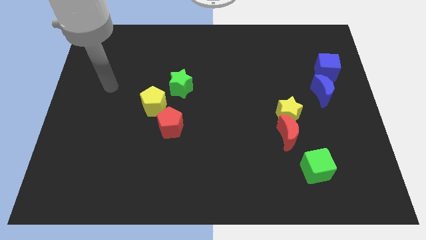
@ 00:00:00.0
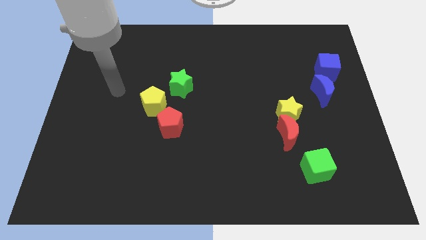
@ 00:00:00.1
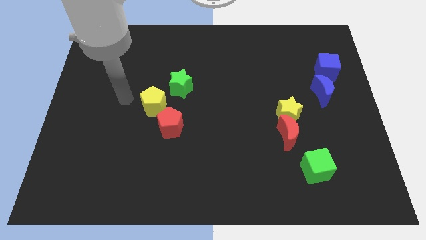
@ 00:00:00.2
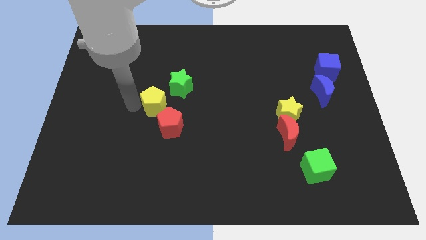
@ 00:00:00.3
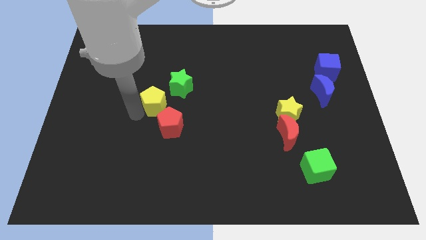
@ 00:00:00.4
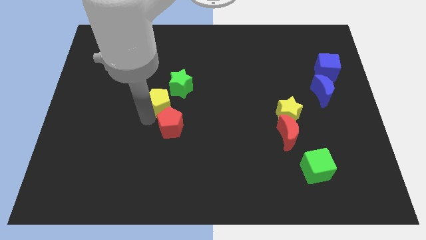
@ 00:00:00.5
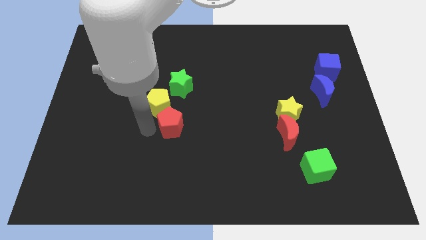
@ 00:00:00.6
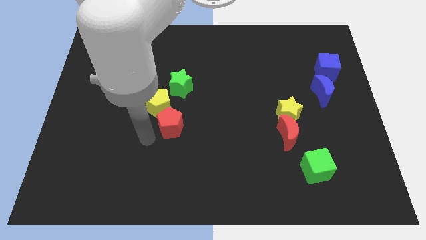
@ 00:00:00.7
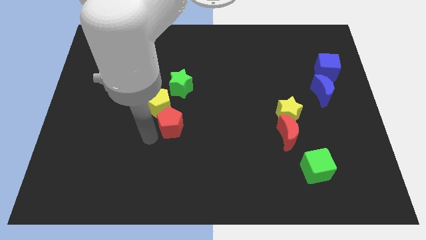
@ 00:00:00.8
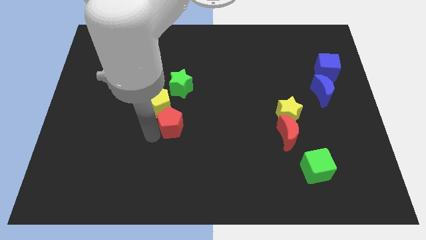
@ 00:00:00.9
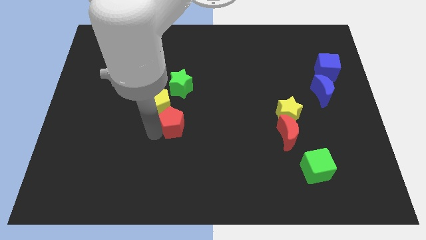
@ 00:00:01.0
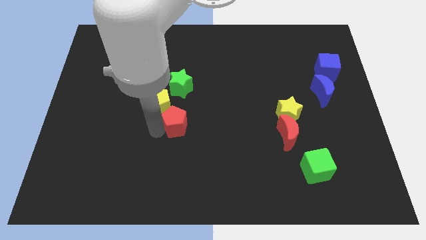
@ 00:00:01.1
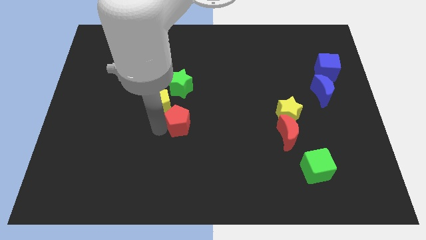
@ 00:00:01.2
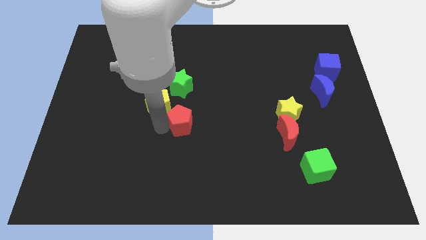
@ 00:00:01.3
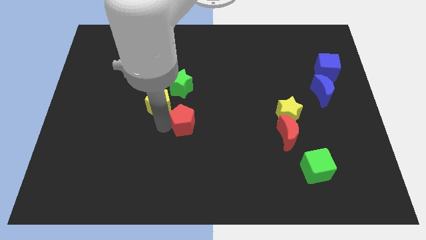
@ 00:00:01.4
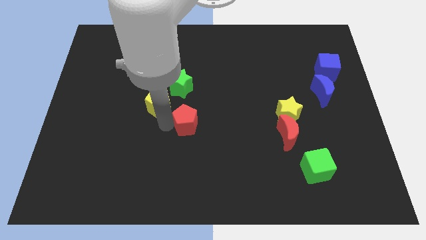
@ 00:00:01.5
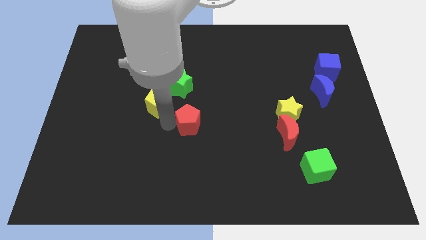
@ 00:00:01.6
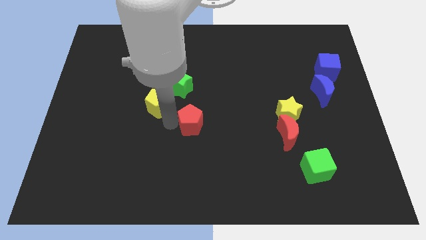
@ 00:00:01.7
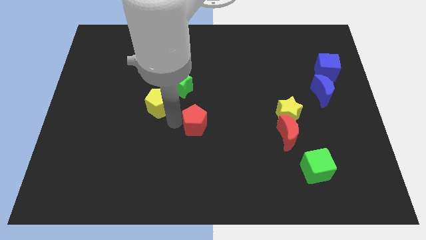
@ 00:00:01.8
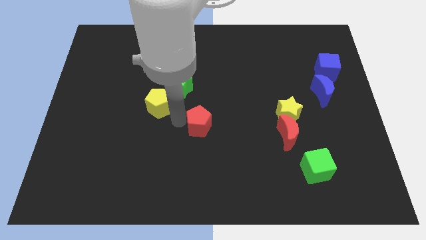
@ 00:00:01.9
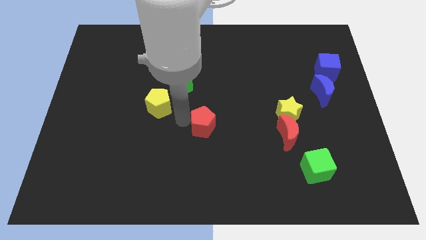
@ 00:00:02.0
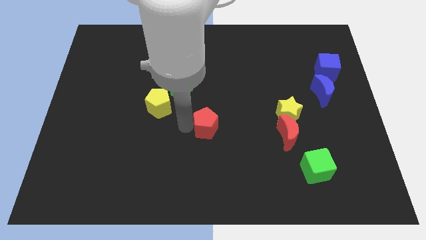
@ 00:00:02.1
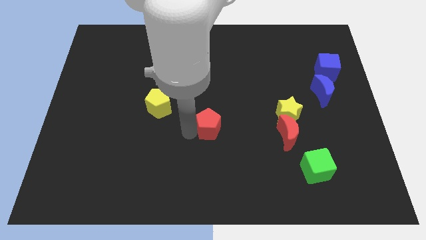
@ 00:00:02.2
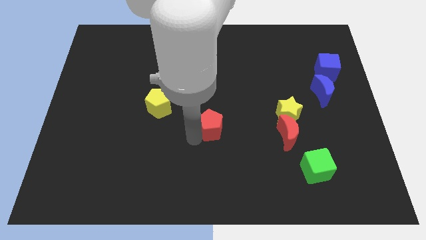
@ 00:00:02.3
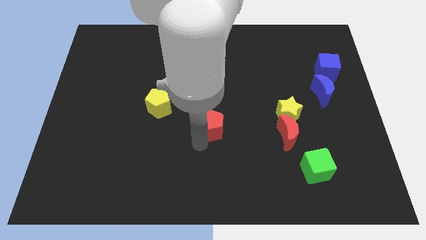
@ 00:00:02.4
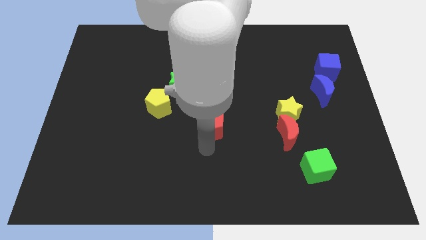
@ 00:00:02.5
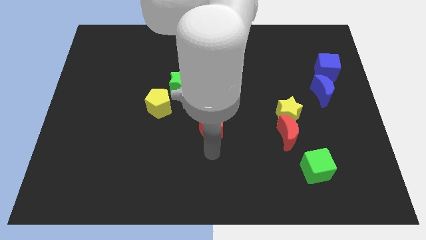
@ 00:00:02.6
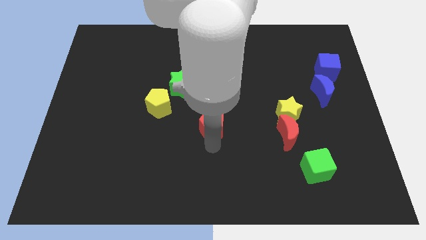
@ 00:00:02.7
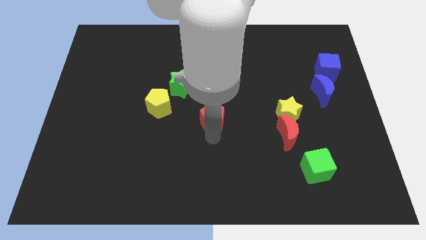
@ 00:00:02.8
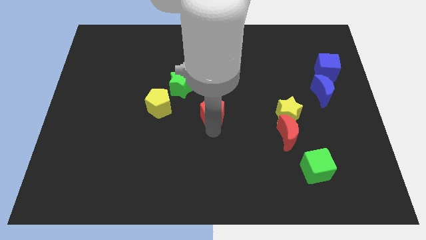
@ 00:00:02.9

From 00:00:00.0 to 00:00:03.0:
slightly push the red pentagon up and to the right

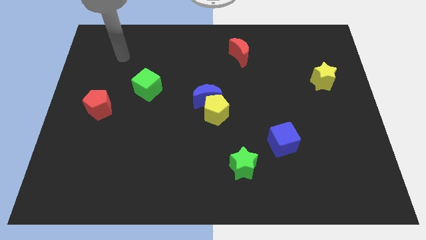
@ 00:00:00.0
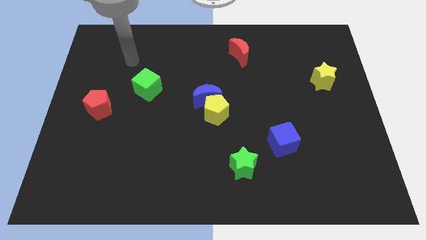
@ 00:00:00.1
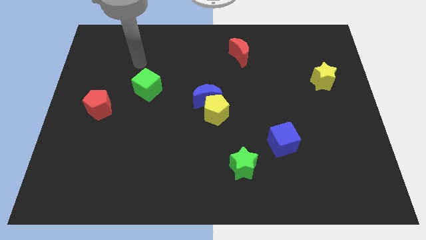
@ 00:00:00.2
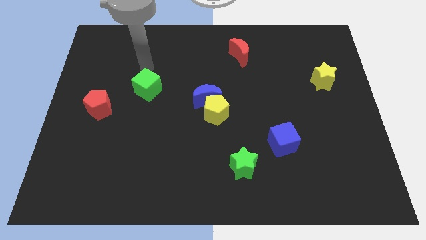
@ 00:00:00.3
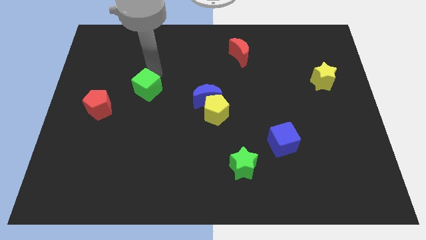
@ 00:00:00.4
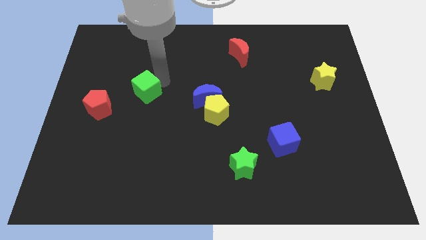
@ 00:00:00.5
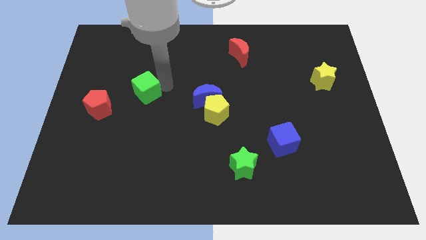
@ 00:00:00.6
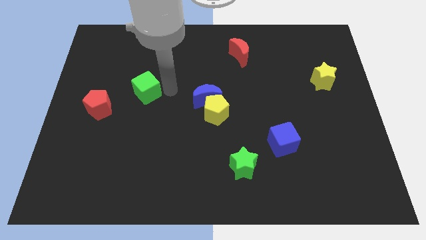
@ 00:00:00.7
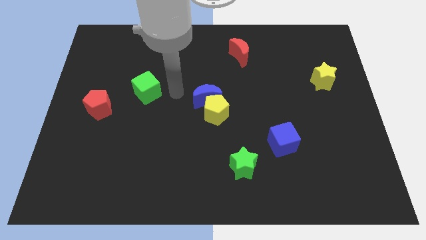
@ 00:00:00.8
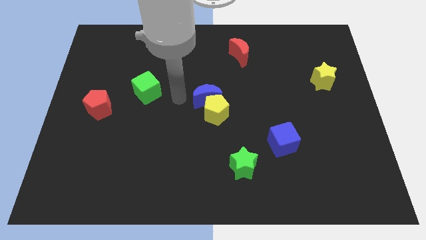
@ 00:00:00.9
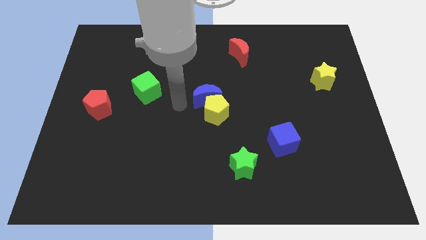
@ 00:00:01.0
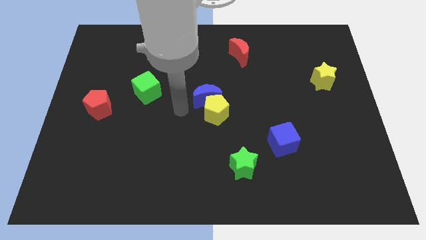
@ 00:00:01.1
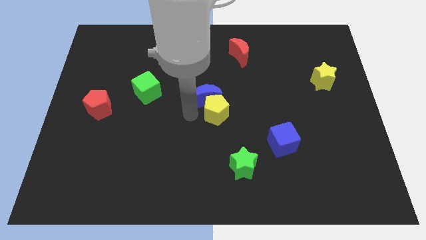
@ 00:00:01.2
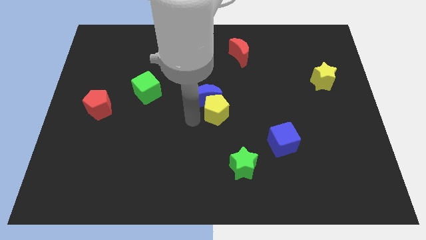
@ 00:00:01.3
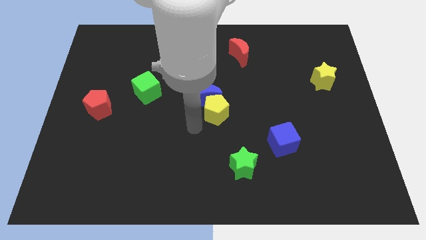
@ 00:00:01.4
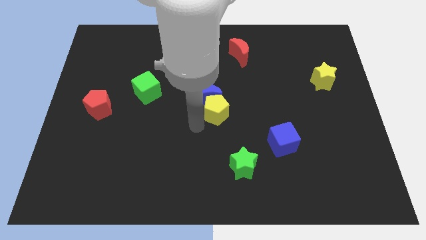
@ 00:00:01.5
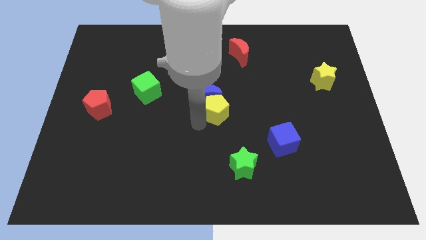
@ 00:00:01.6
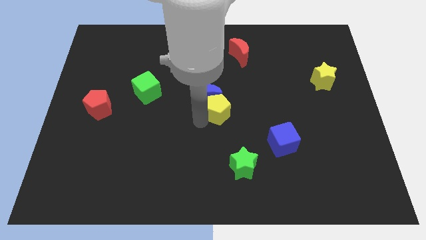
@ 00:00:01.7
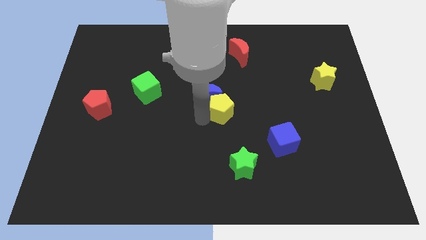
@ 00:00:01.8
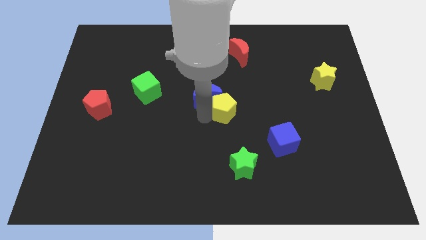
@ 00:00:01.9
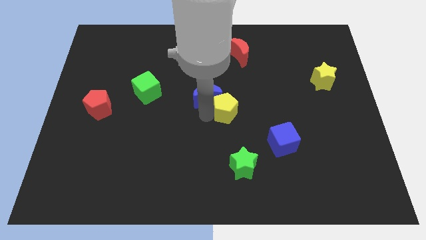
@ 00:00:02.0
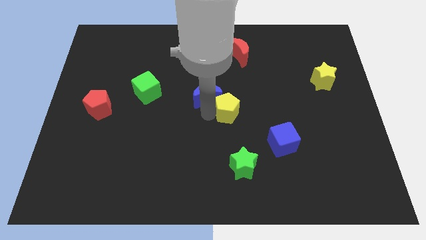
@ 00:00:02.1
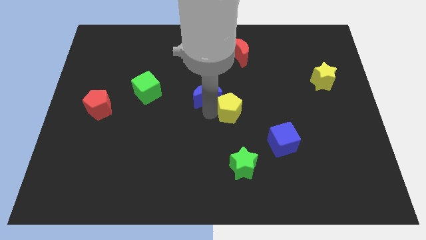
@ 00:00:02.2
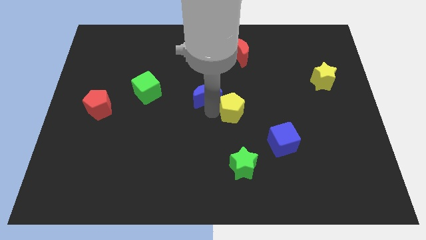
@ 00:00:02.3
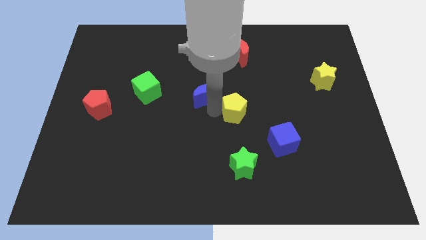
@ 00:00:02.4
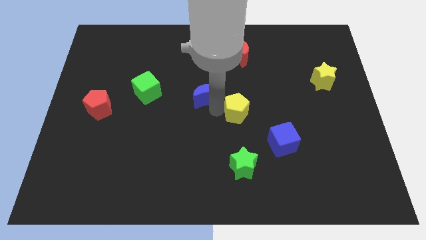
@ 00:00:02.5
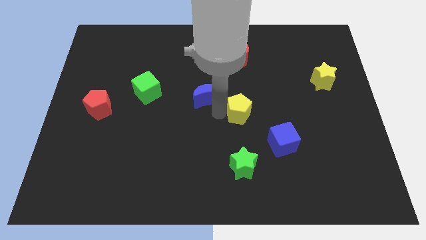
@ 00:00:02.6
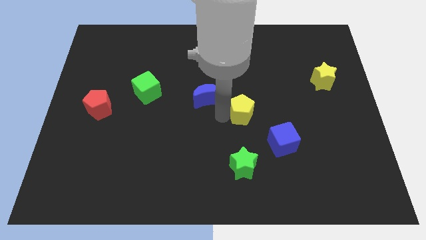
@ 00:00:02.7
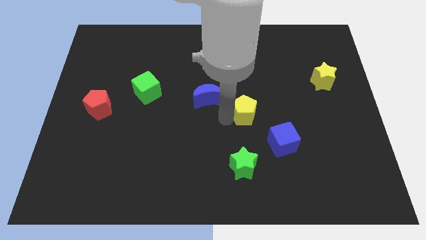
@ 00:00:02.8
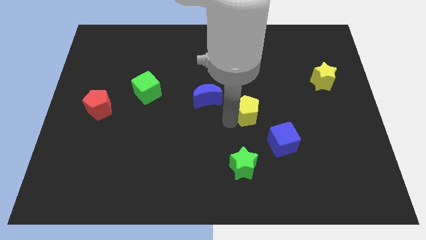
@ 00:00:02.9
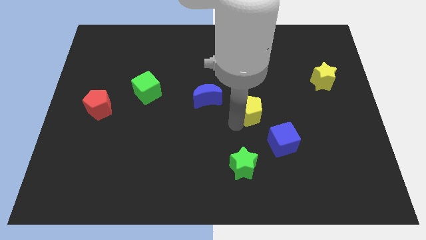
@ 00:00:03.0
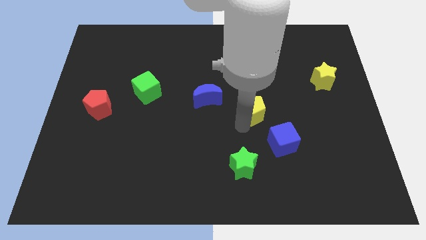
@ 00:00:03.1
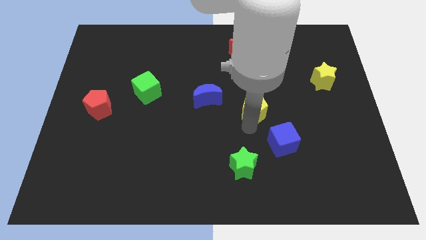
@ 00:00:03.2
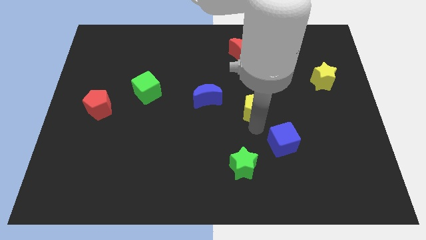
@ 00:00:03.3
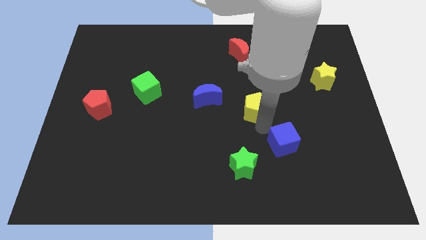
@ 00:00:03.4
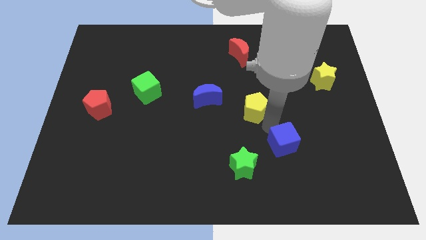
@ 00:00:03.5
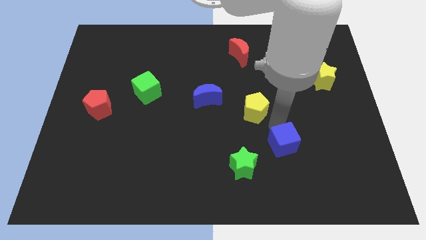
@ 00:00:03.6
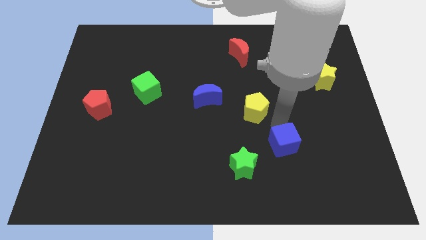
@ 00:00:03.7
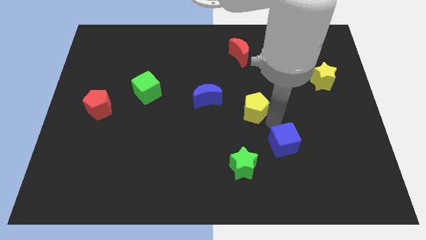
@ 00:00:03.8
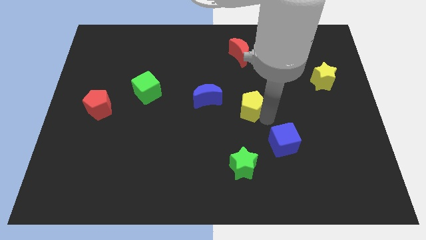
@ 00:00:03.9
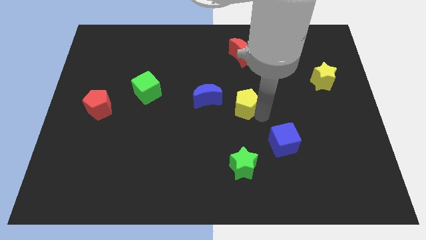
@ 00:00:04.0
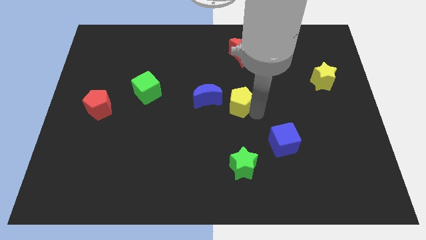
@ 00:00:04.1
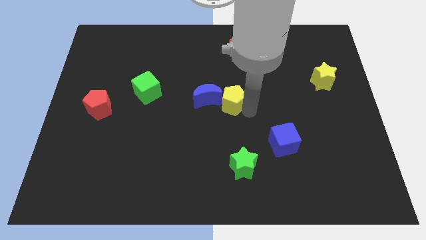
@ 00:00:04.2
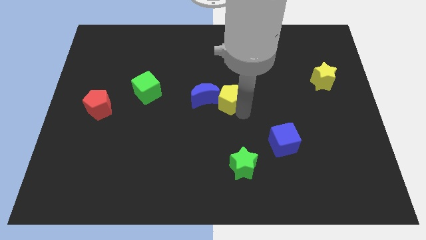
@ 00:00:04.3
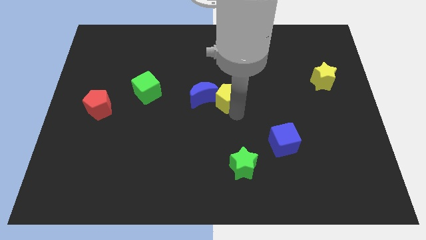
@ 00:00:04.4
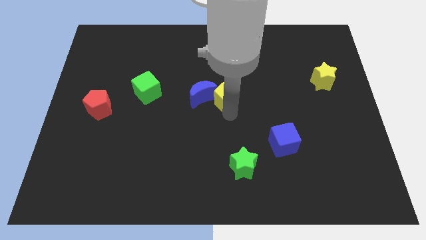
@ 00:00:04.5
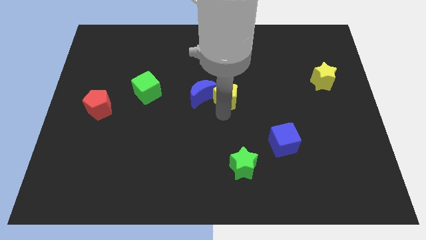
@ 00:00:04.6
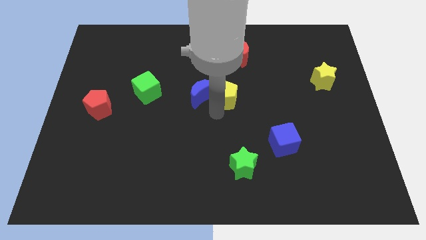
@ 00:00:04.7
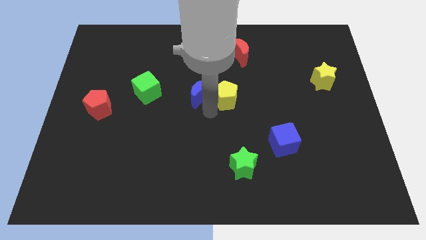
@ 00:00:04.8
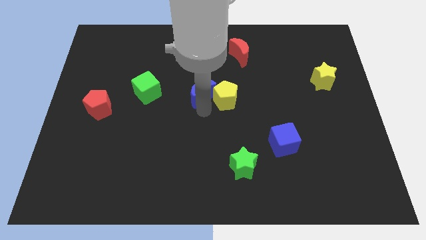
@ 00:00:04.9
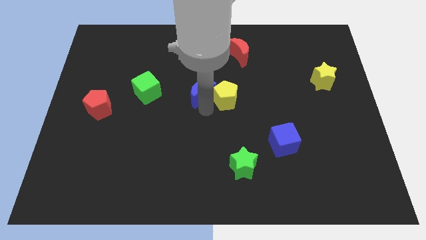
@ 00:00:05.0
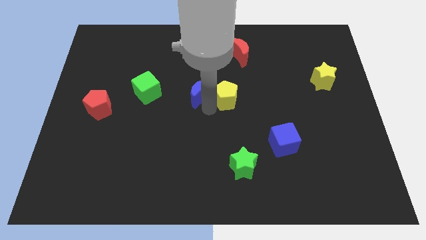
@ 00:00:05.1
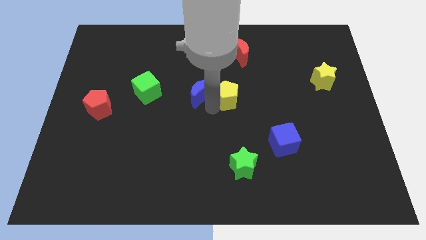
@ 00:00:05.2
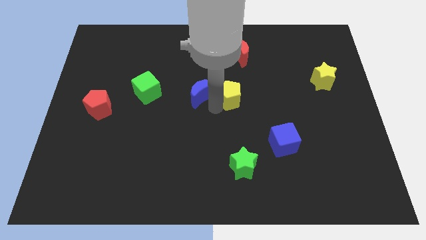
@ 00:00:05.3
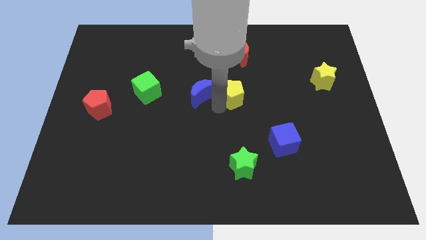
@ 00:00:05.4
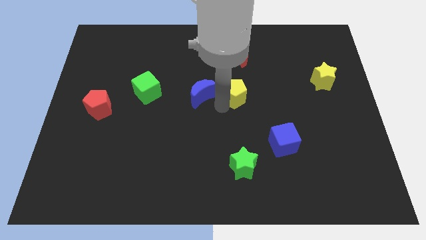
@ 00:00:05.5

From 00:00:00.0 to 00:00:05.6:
push the yellow pentagon diagonally up and to the right somewhat
